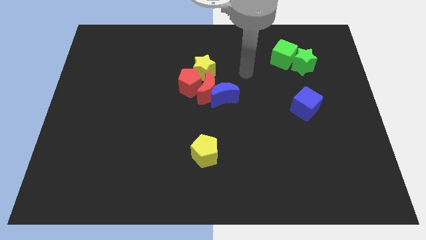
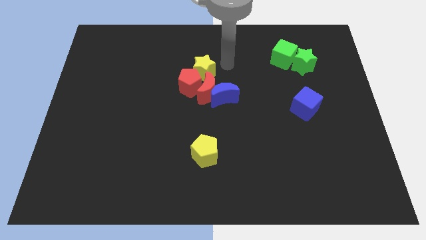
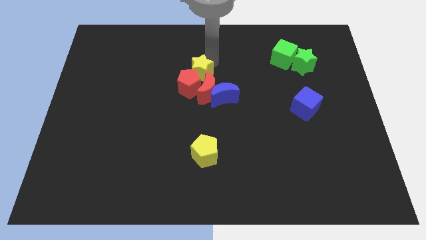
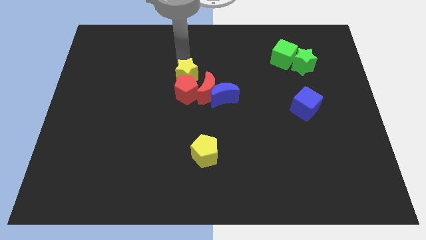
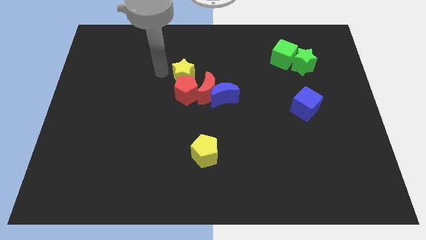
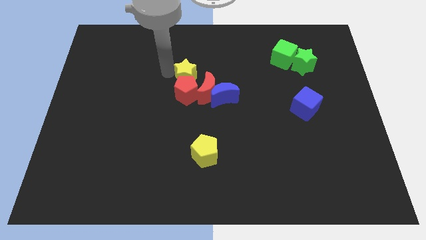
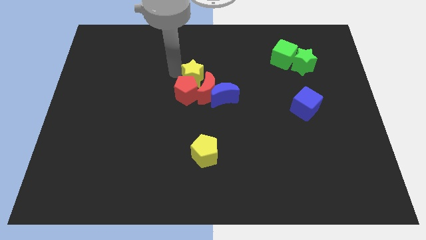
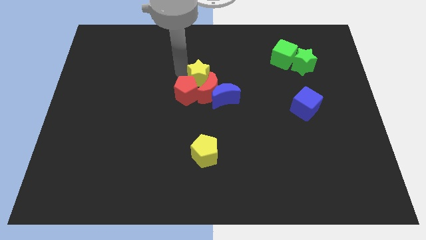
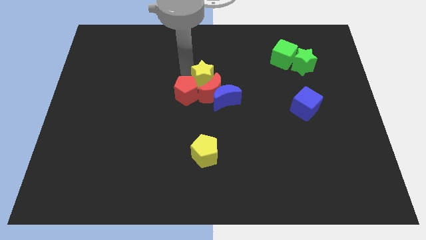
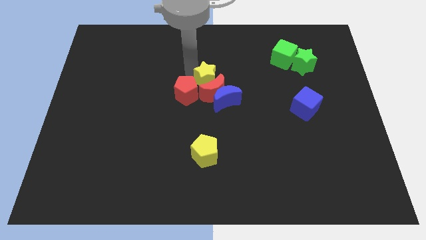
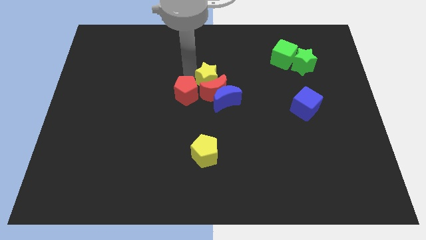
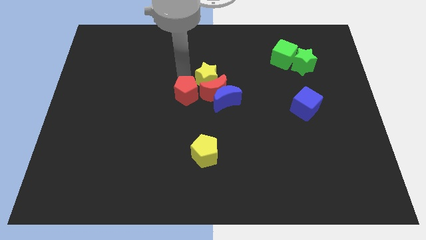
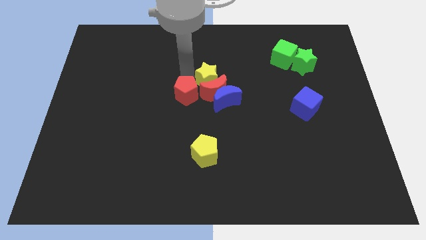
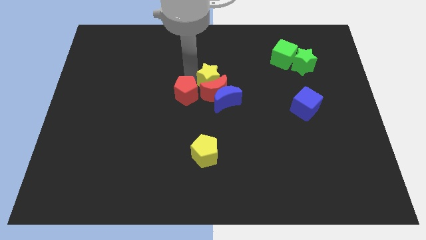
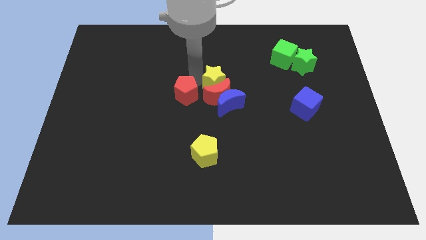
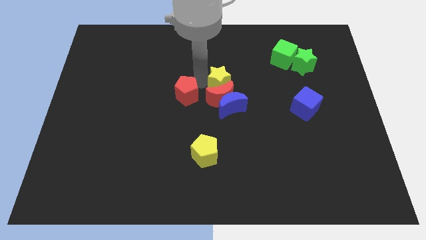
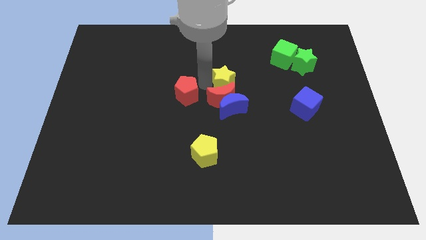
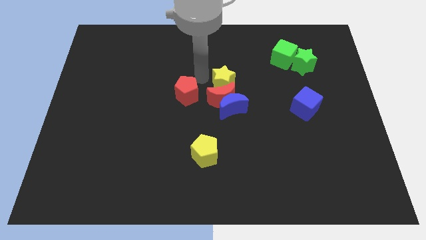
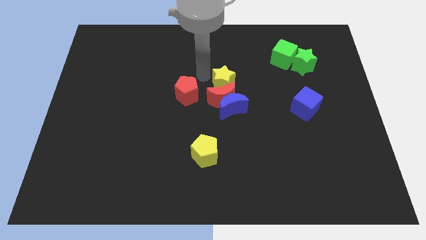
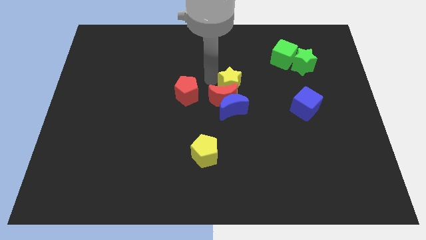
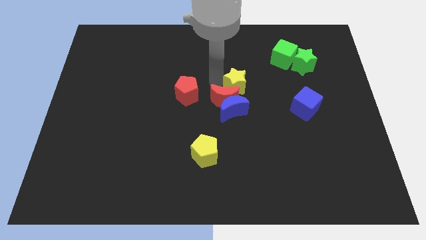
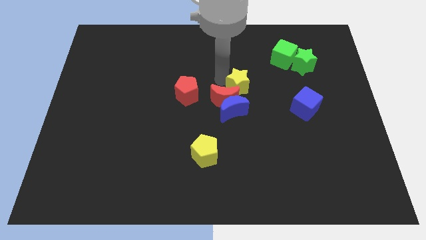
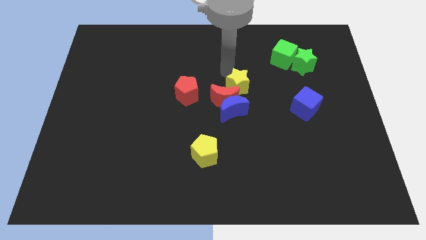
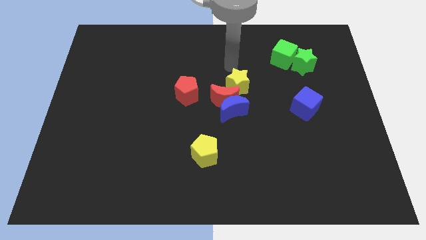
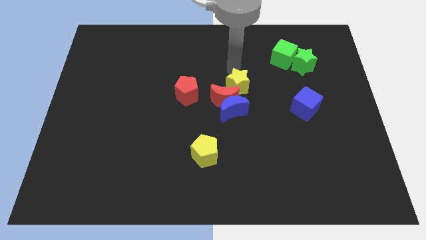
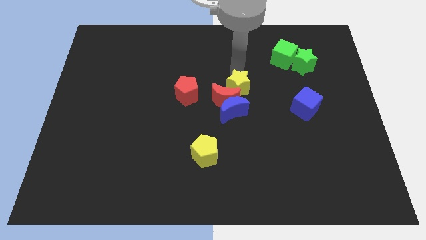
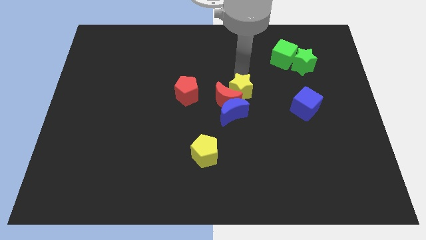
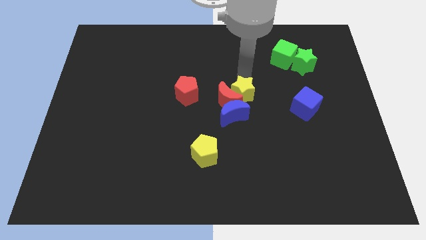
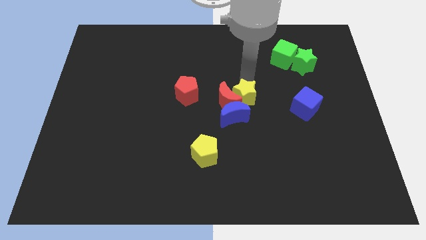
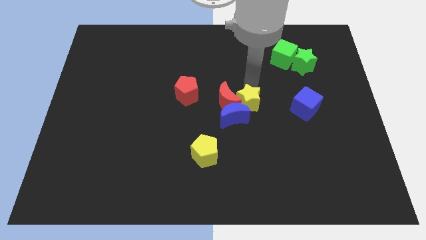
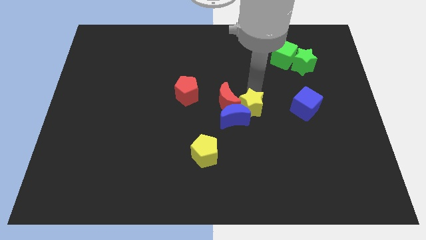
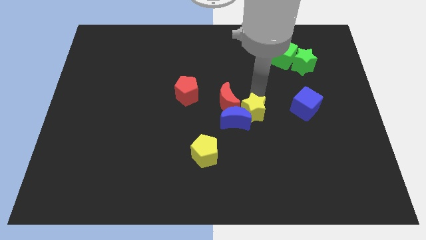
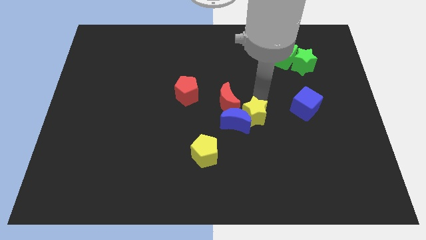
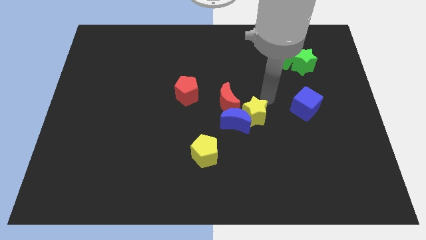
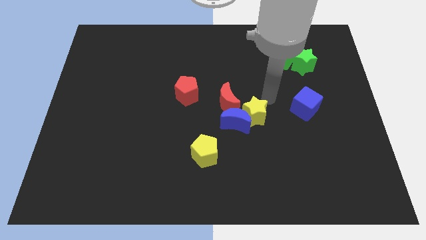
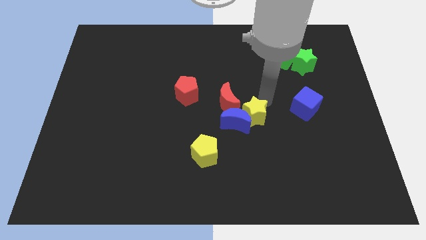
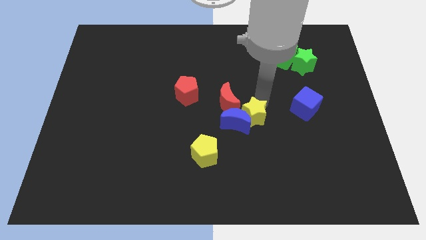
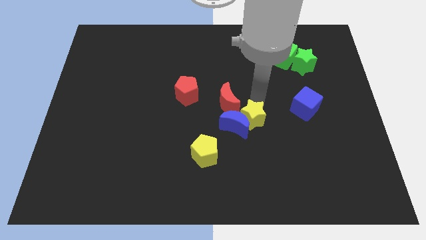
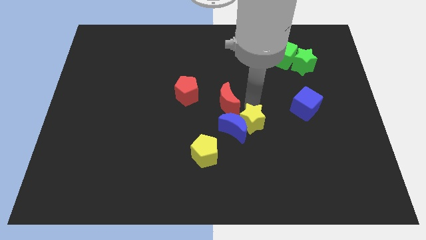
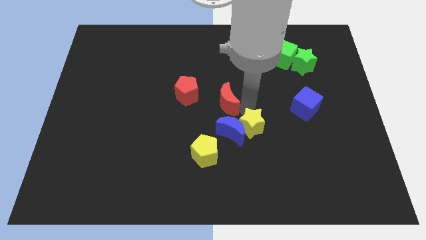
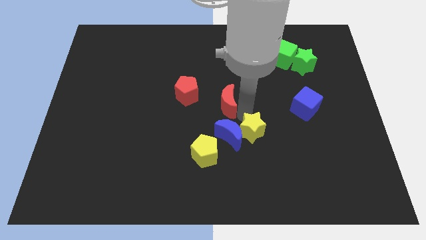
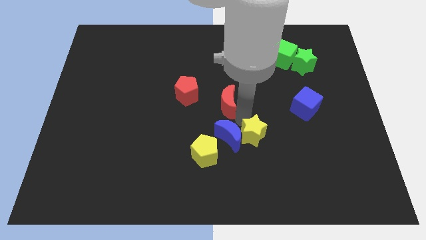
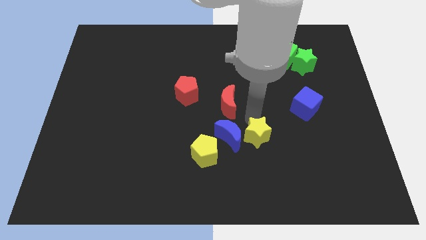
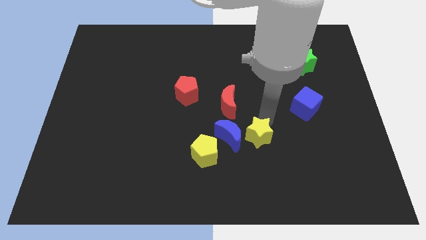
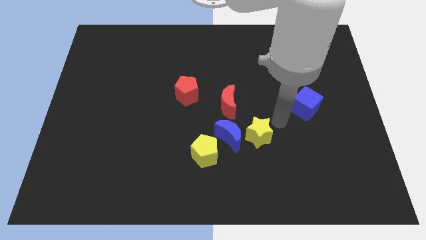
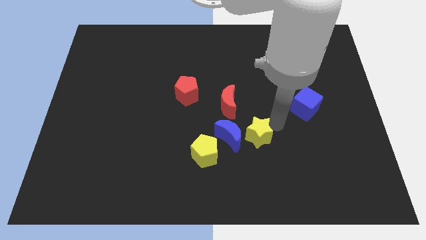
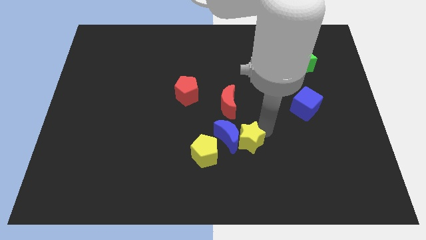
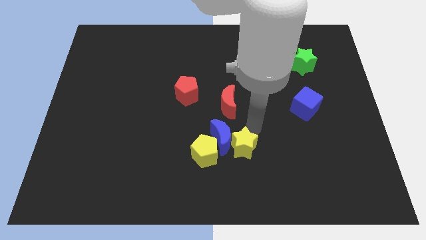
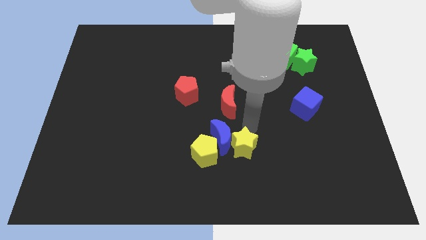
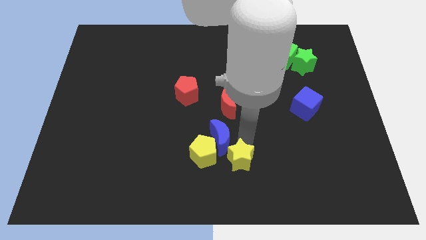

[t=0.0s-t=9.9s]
put the yellow star to the bottom right side of the yellow pentagon

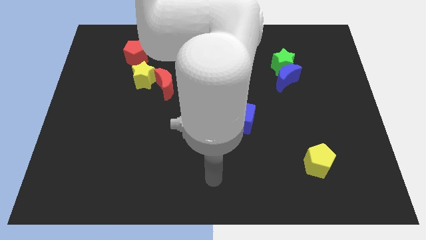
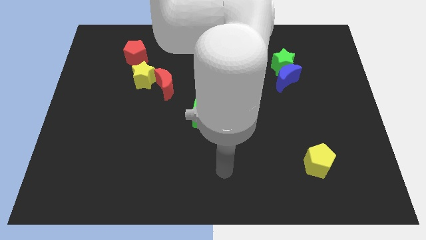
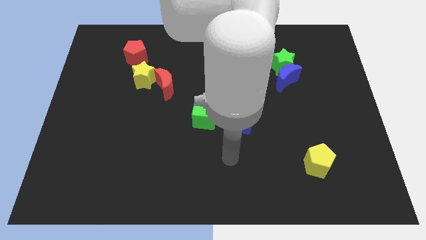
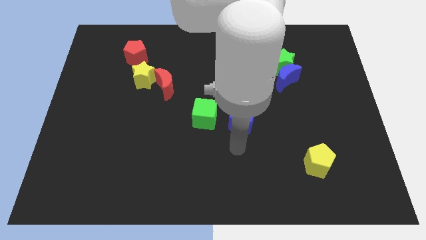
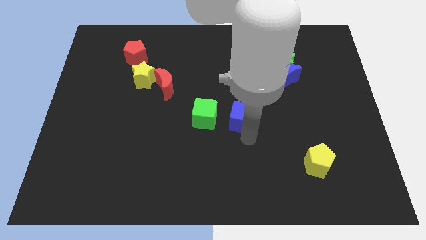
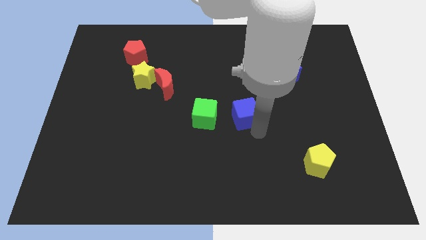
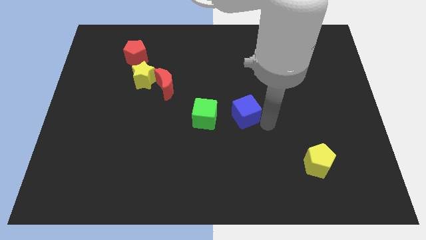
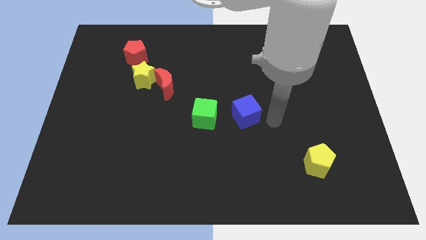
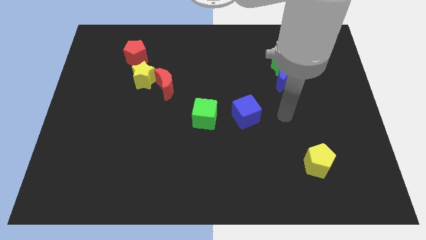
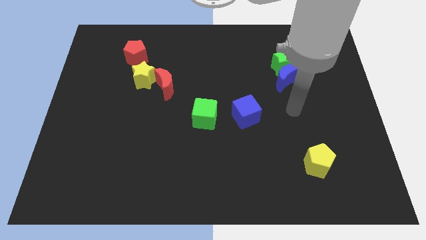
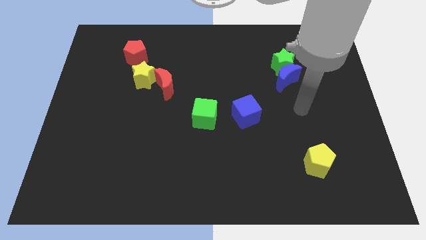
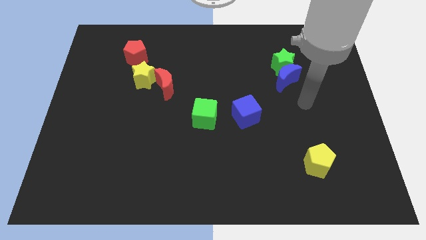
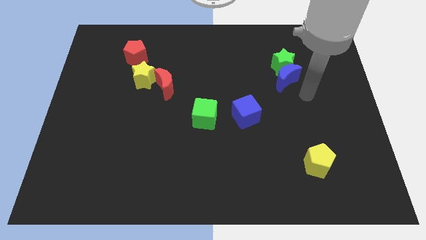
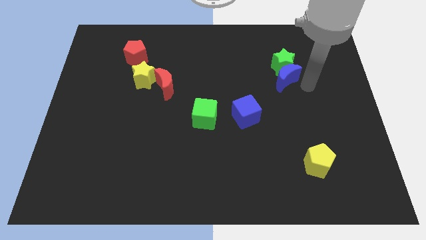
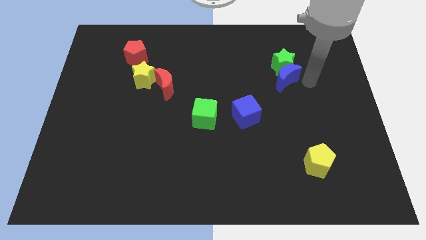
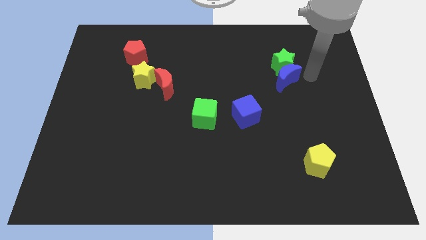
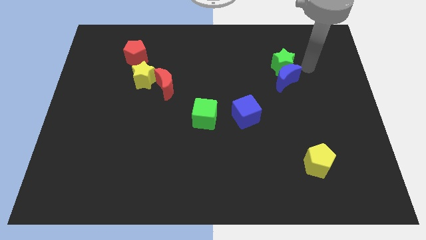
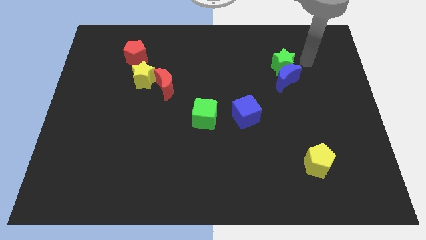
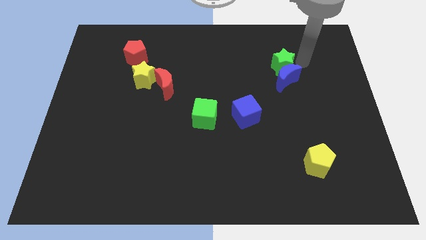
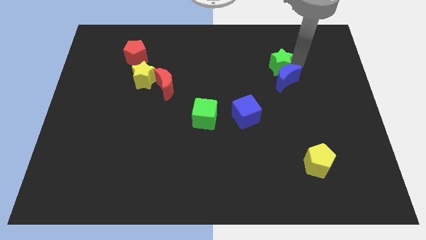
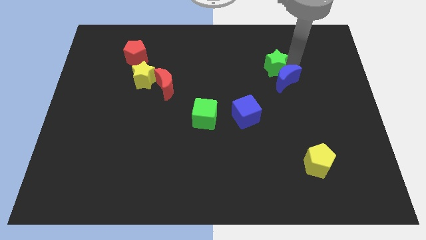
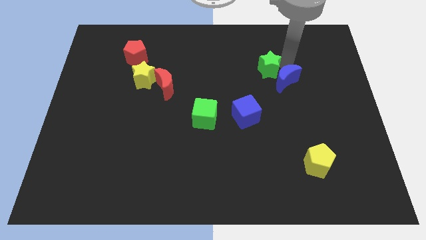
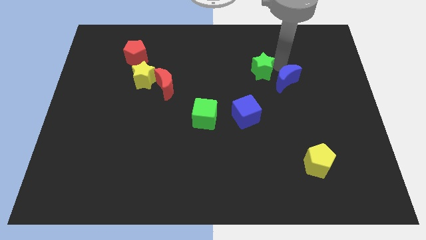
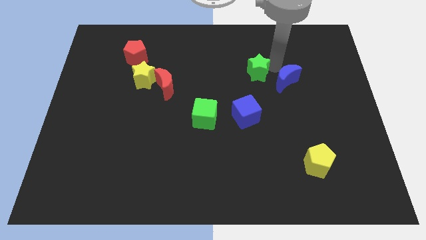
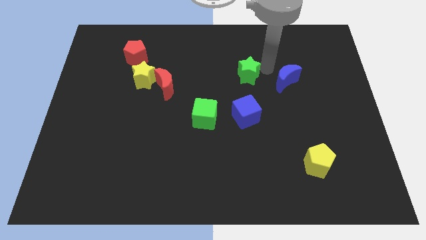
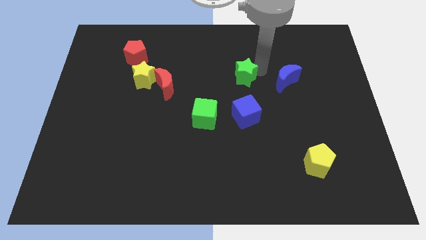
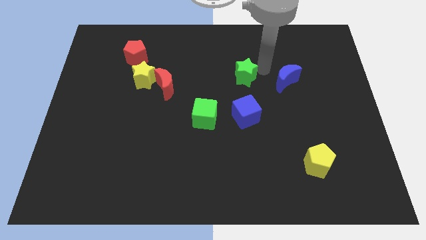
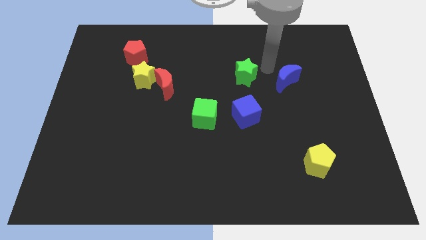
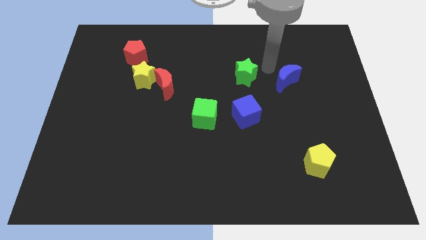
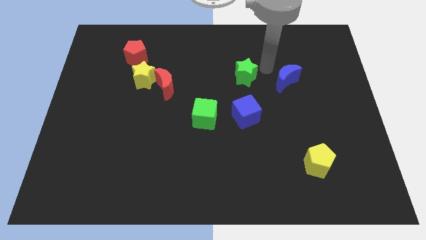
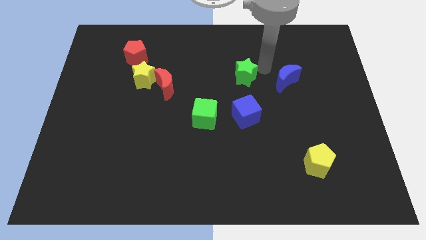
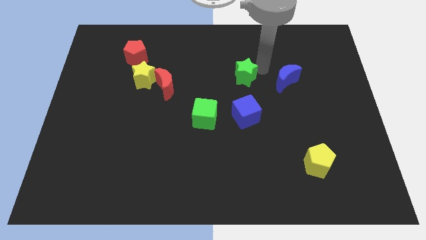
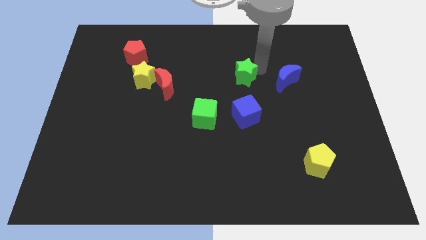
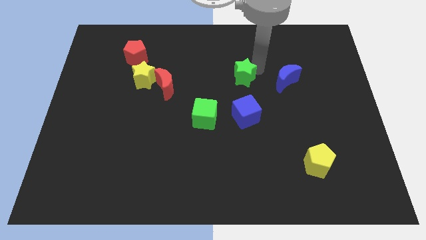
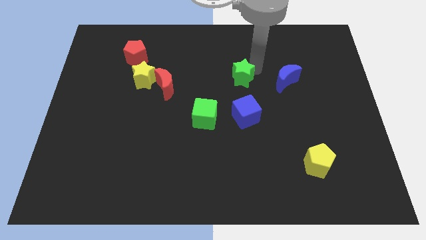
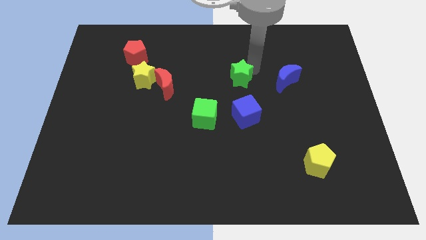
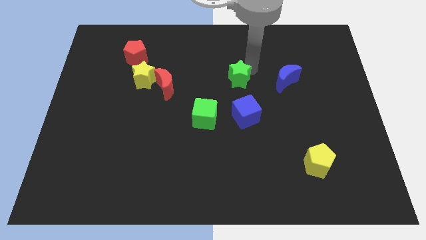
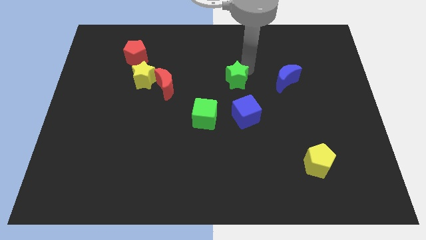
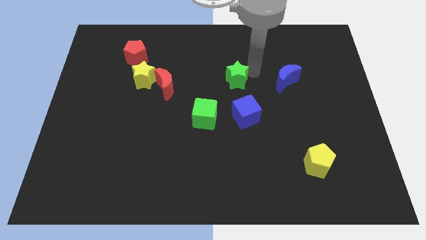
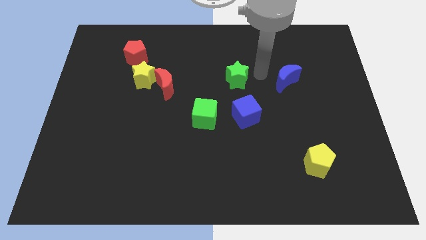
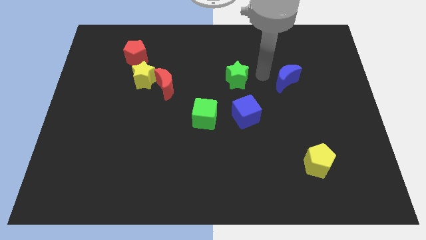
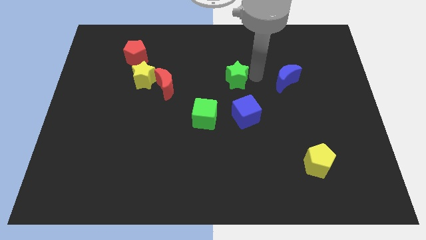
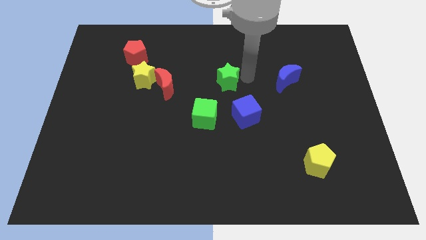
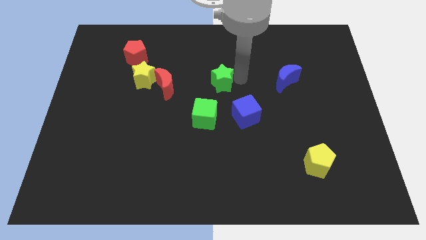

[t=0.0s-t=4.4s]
move the green star above the green cube
